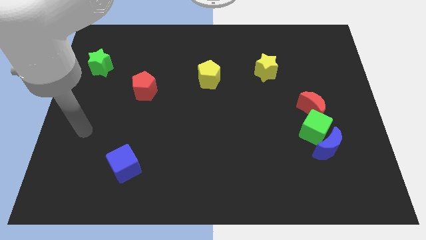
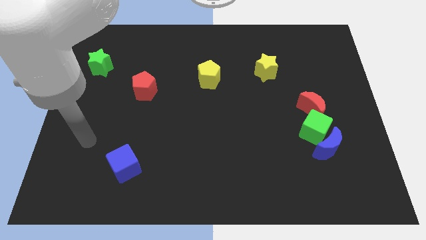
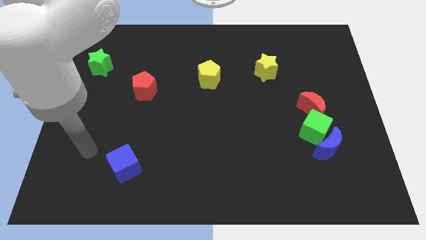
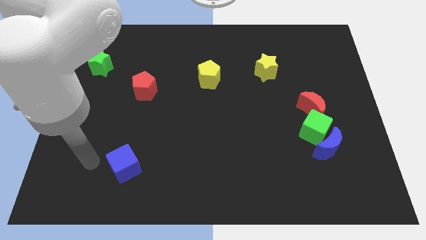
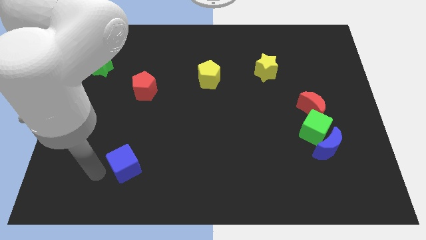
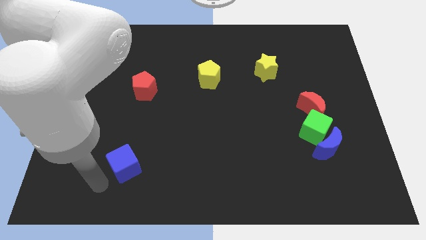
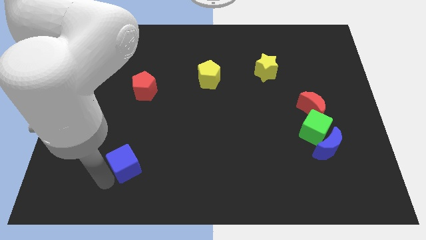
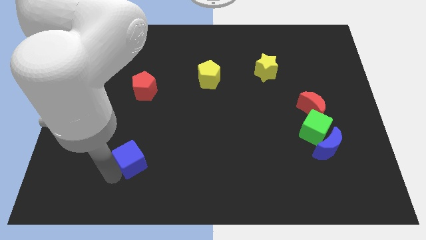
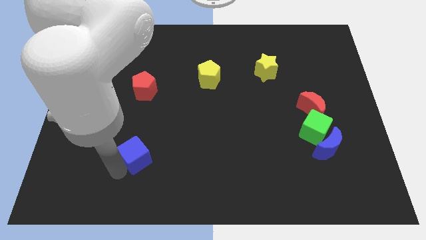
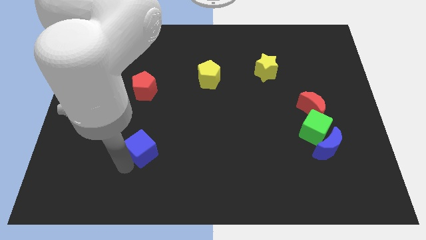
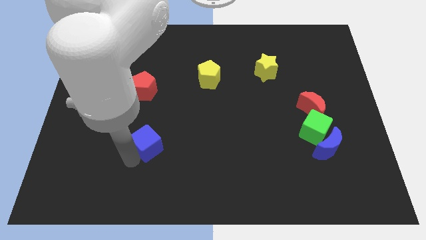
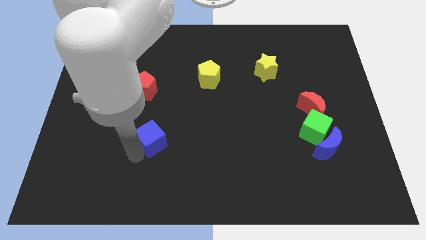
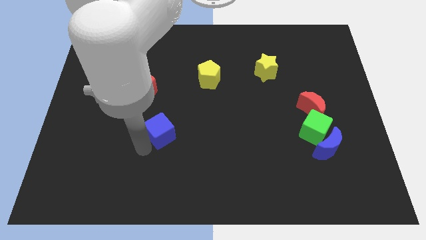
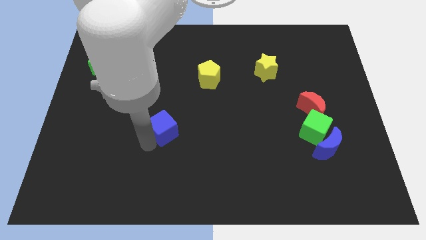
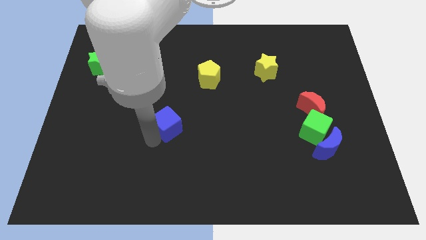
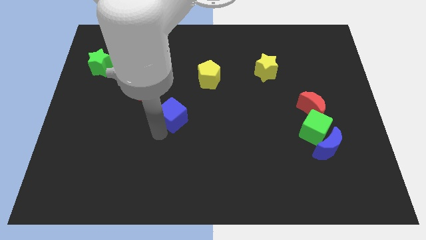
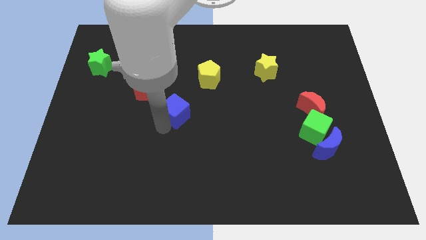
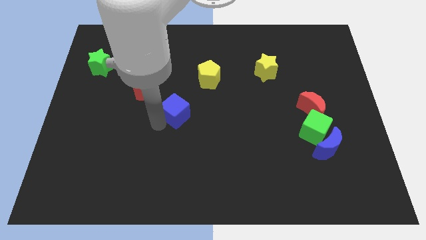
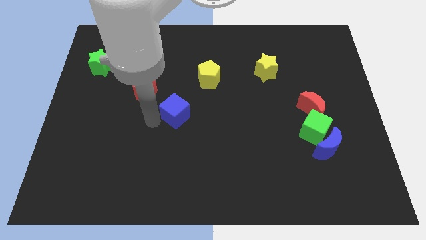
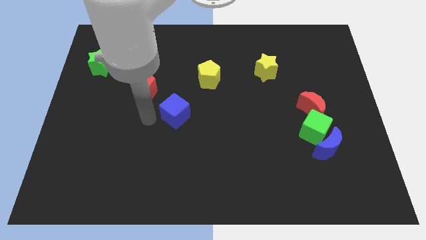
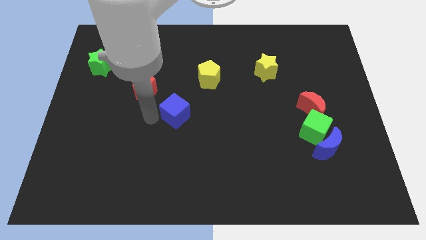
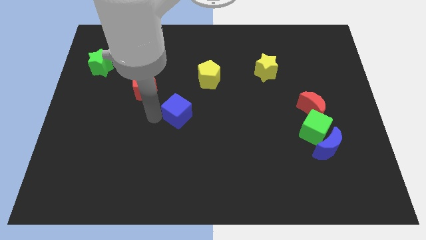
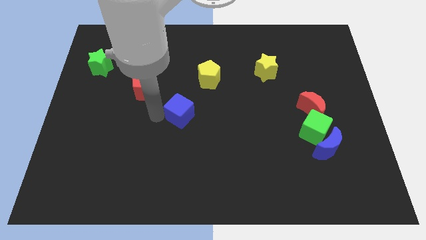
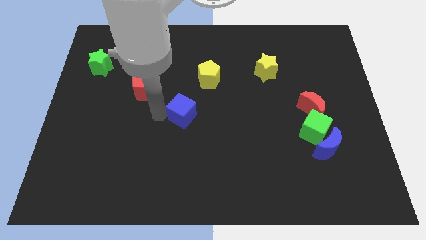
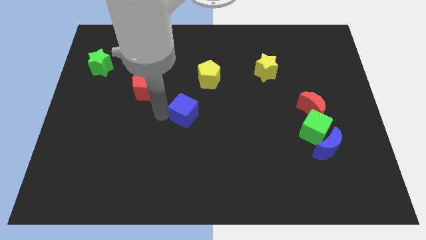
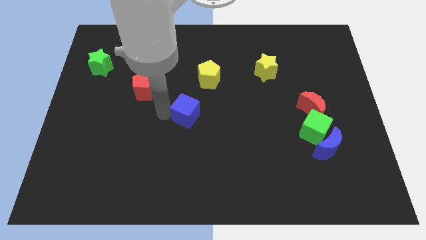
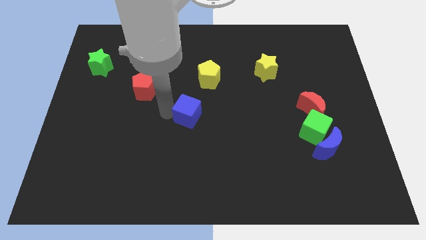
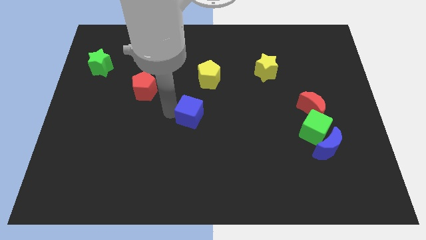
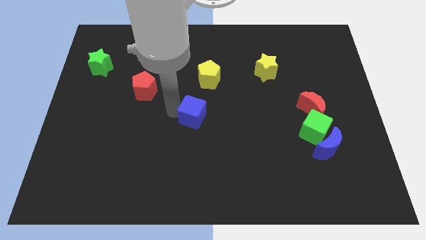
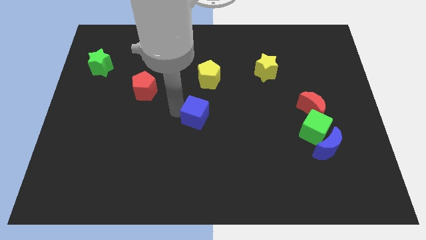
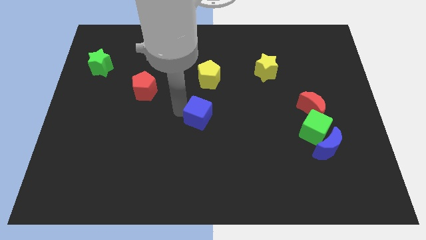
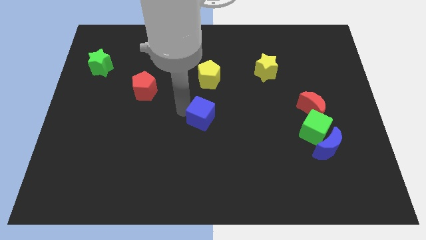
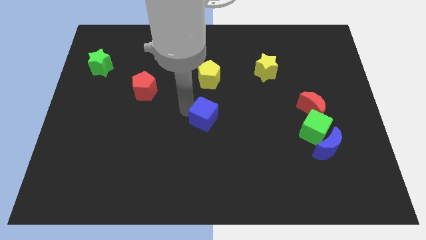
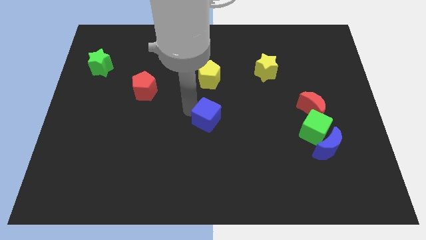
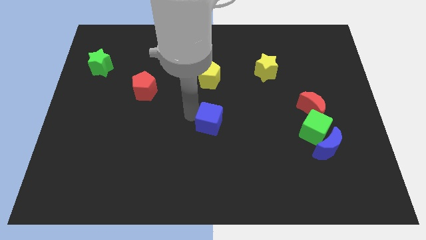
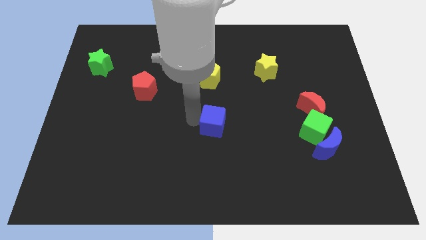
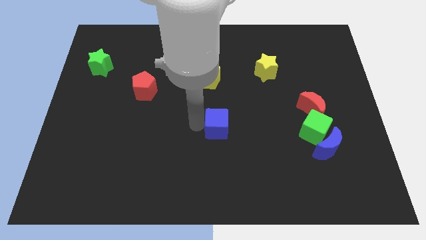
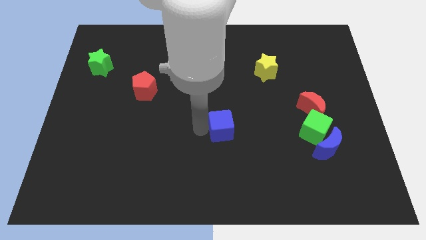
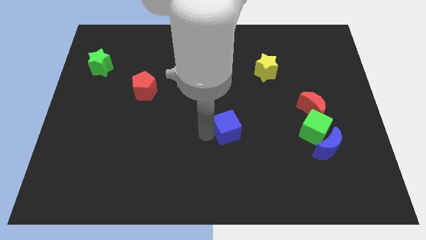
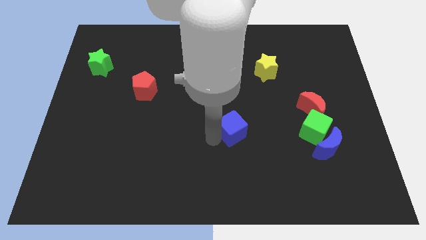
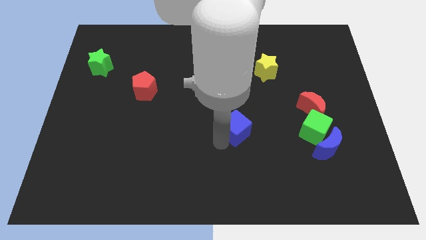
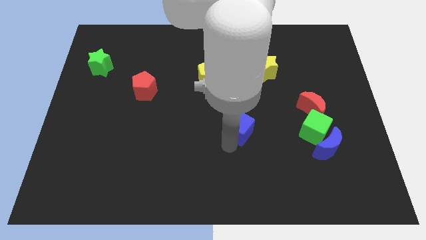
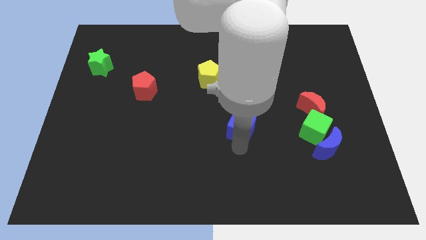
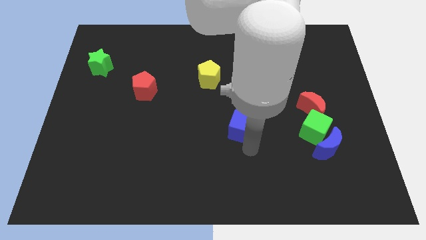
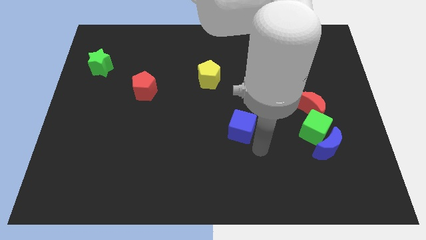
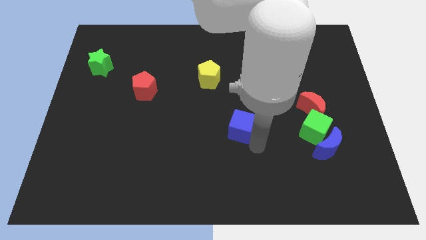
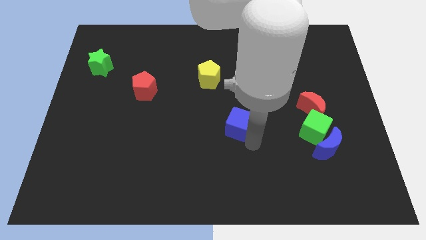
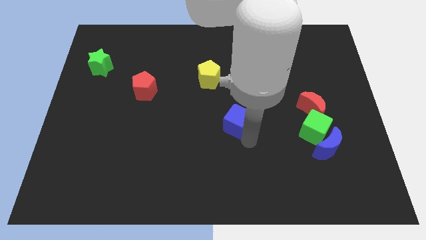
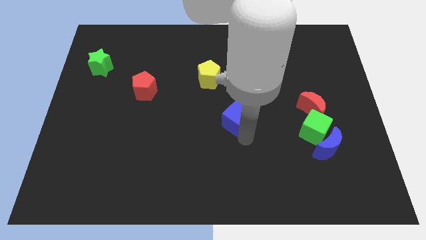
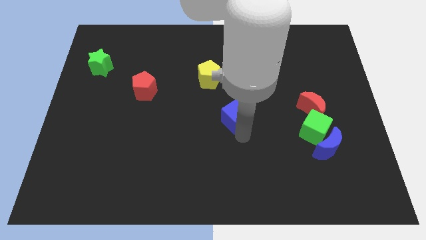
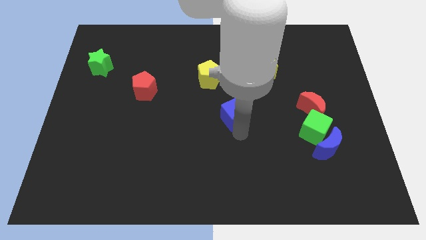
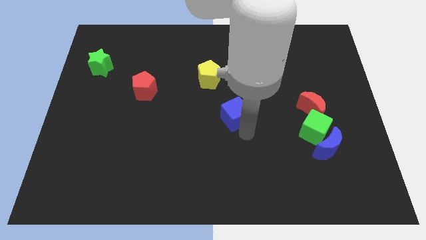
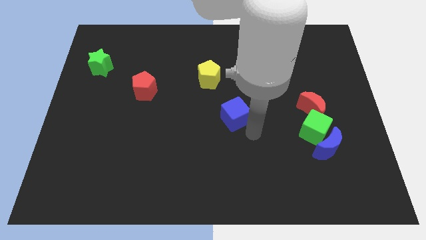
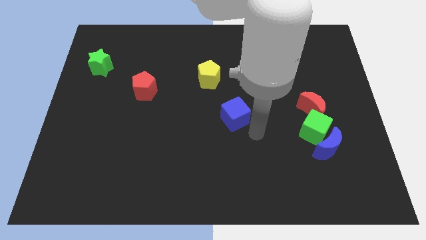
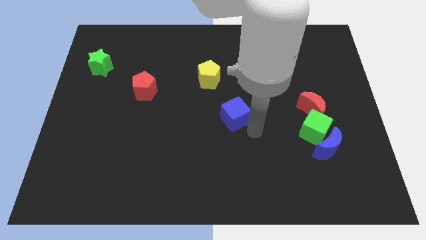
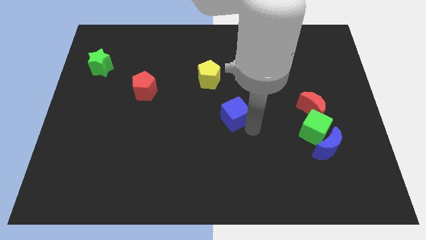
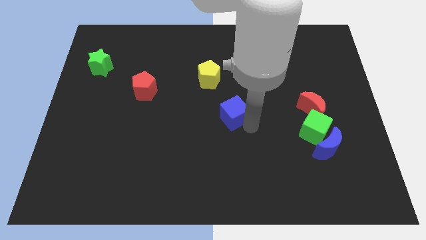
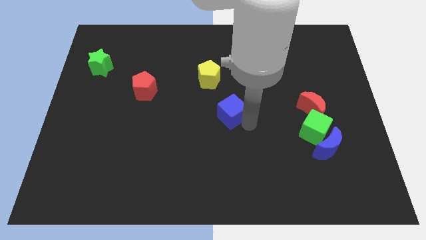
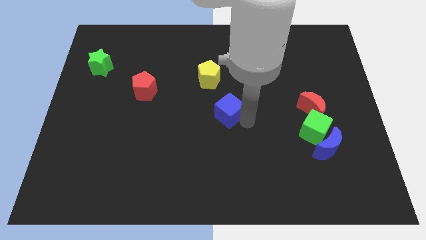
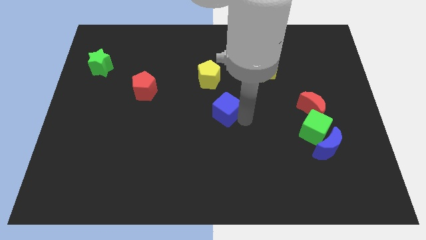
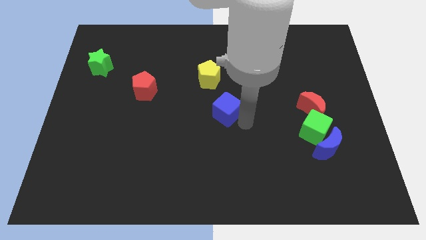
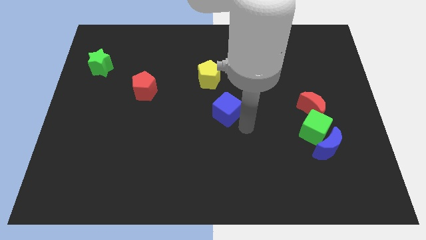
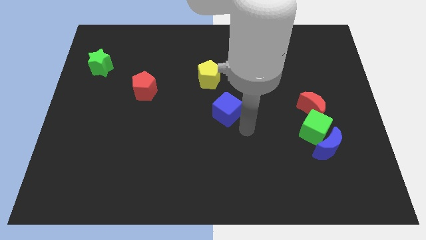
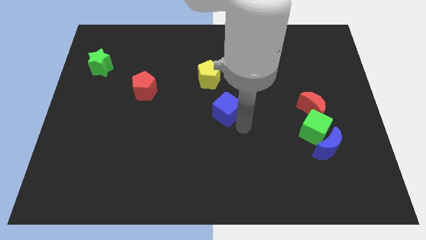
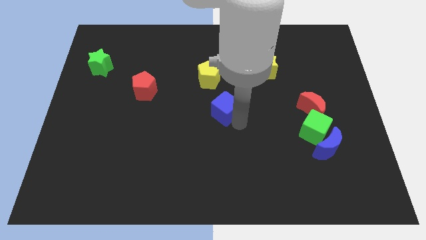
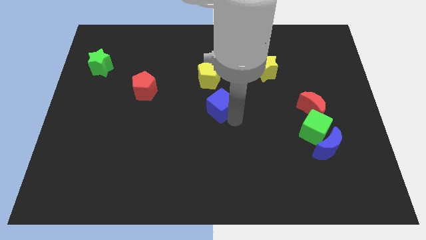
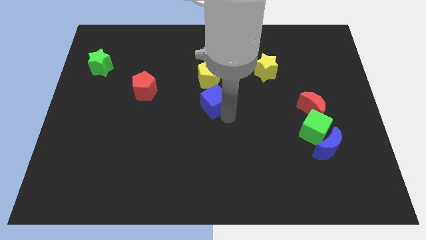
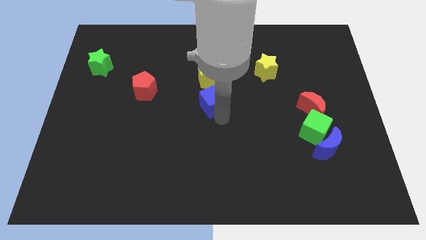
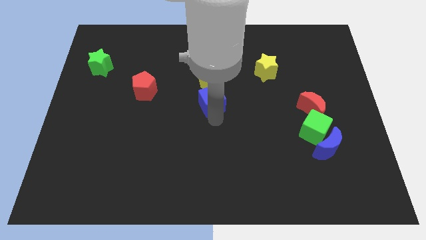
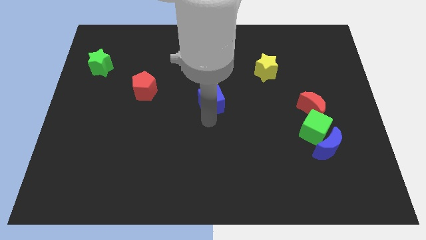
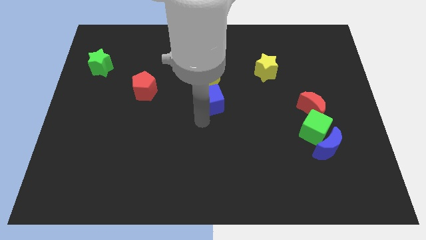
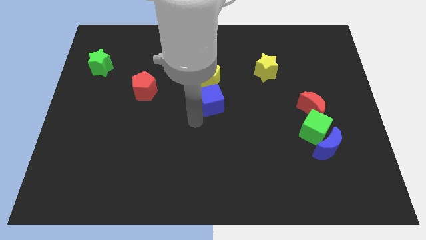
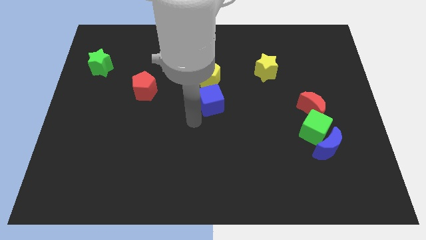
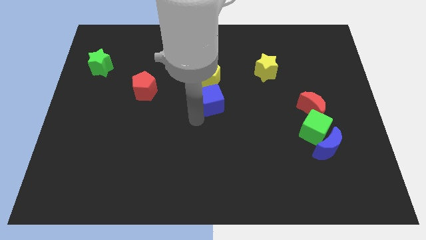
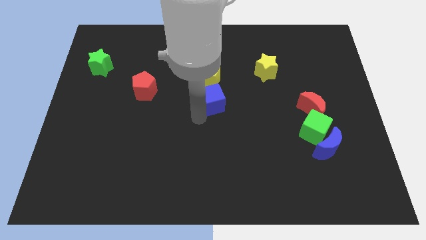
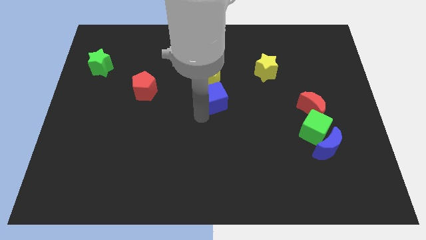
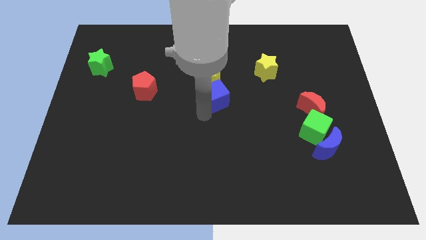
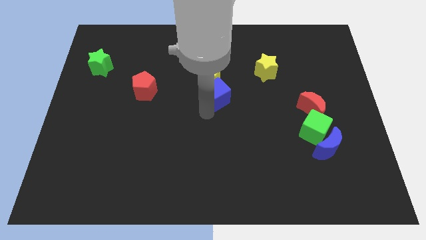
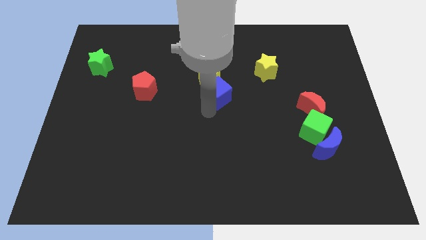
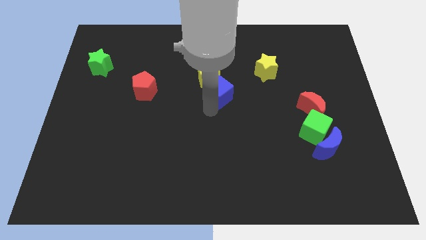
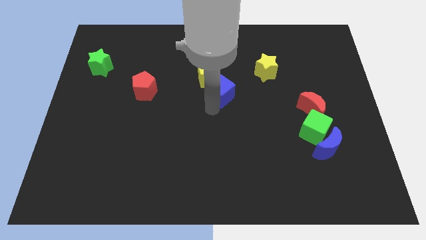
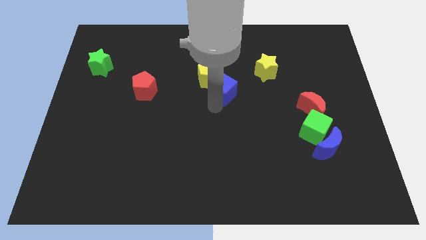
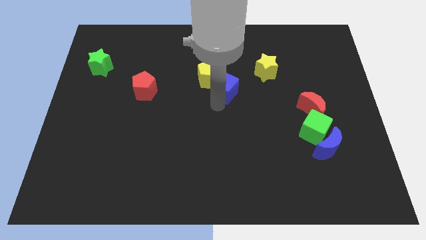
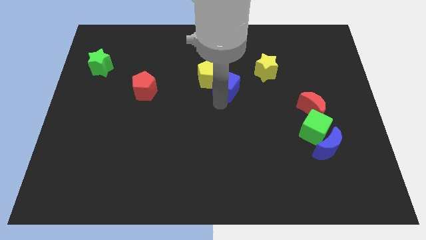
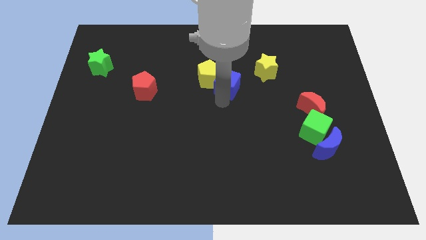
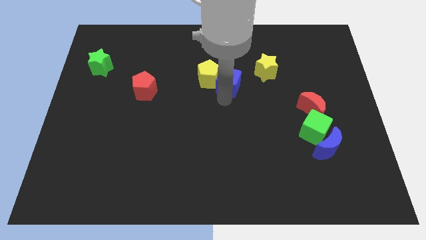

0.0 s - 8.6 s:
slide the blue cube left of the yellow star
